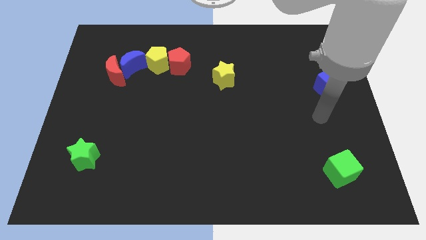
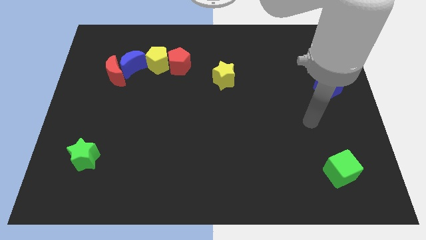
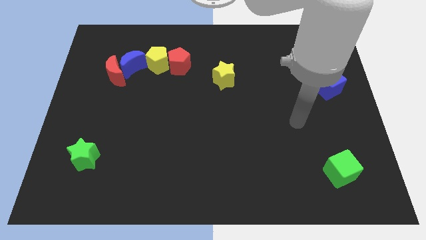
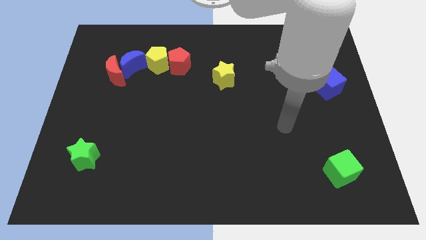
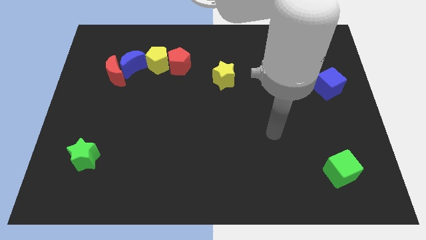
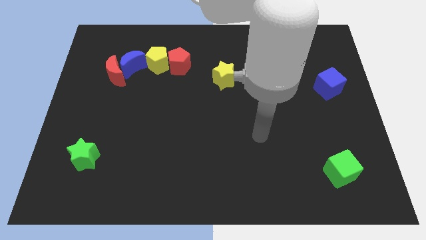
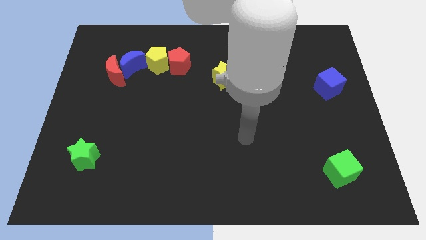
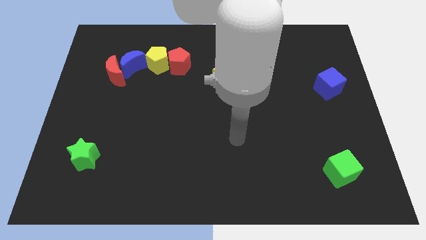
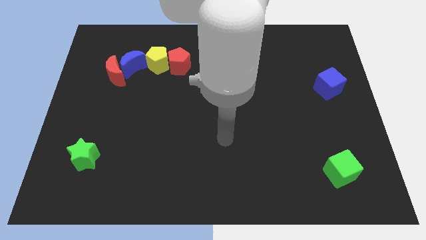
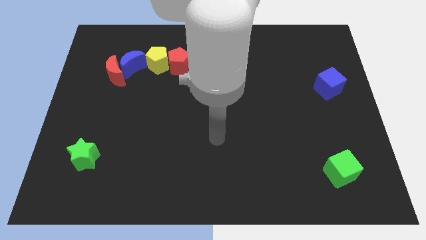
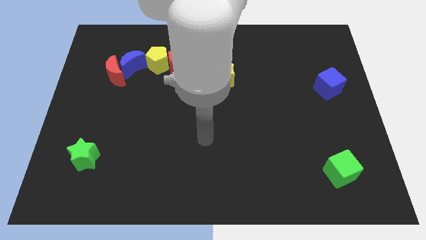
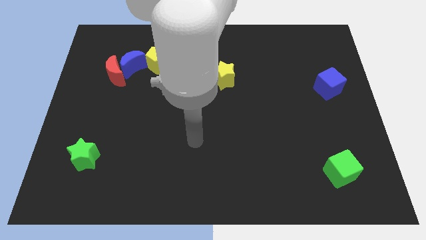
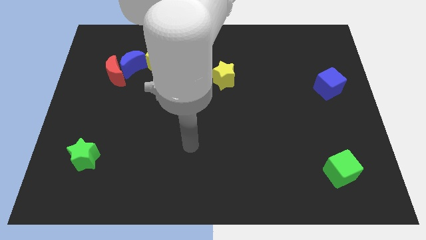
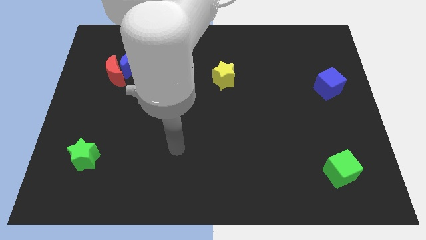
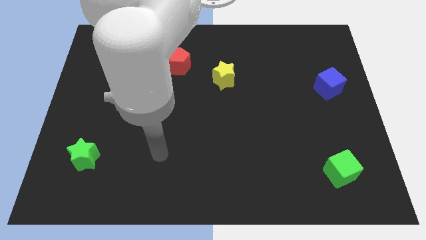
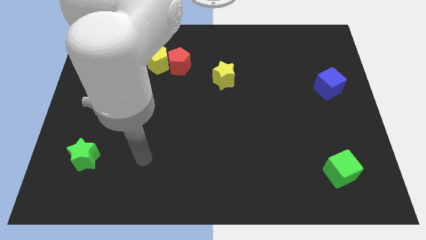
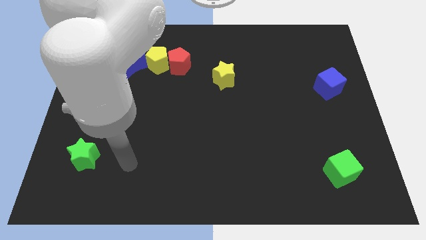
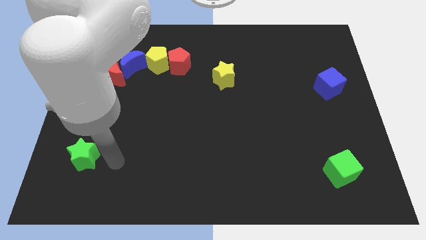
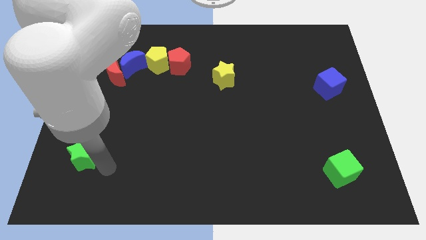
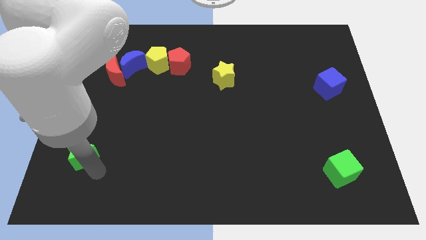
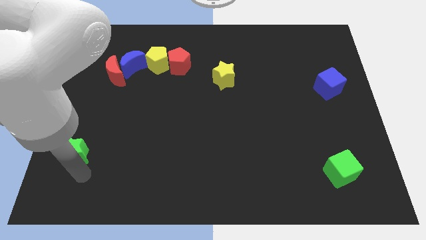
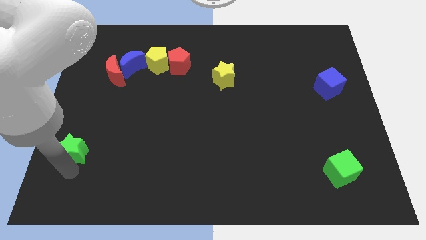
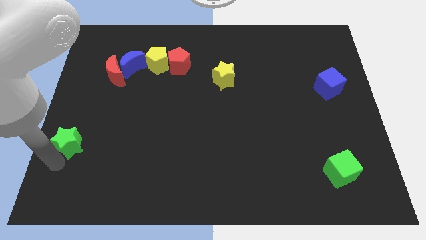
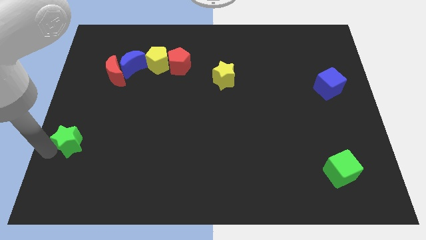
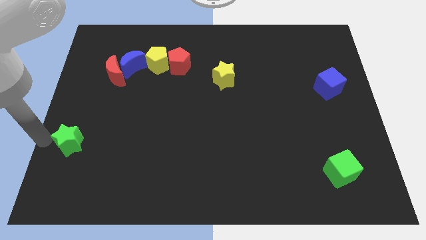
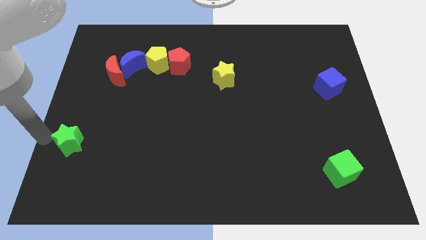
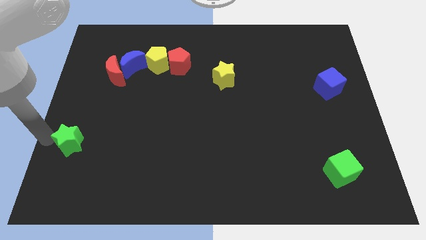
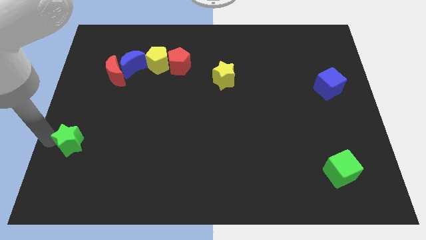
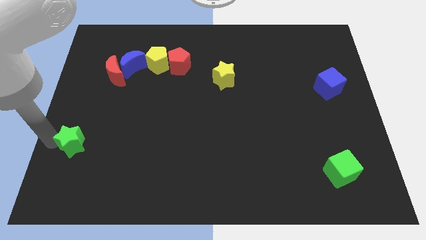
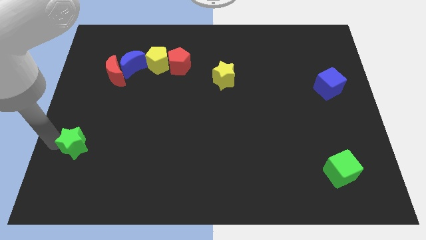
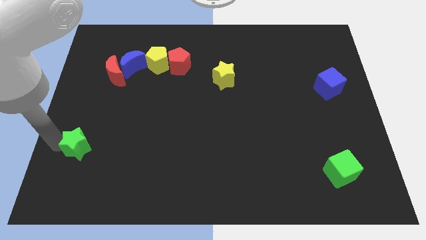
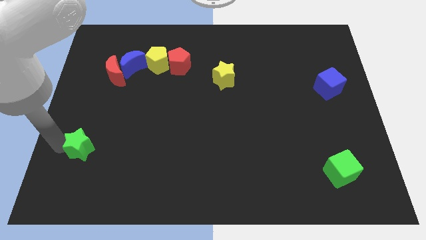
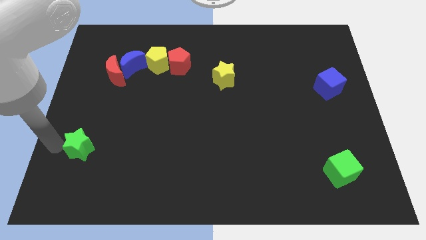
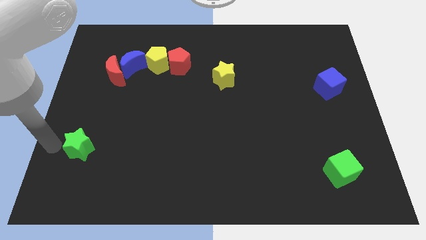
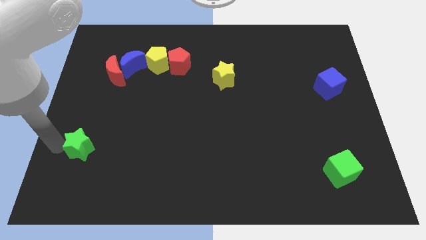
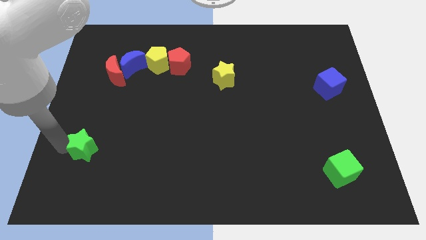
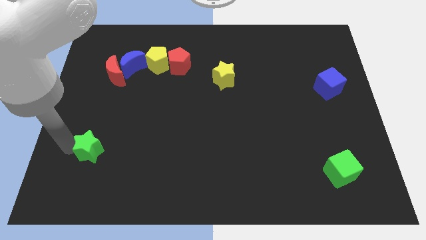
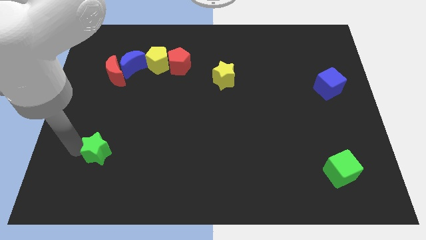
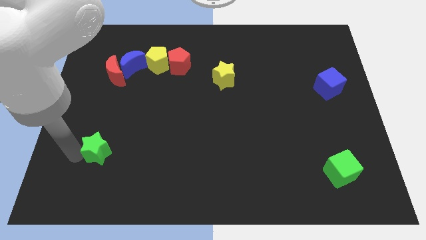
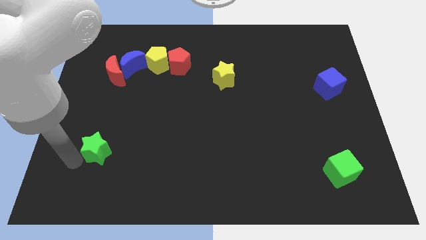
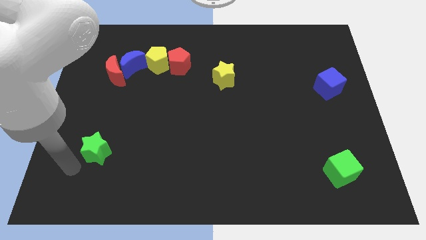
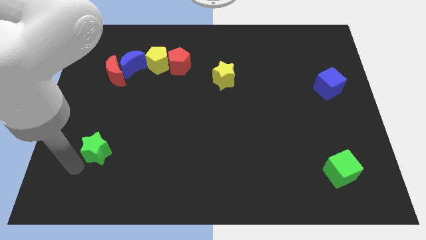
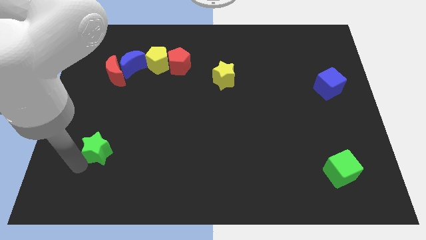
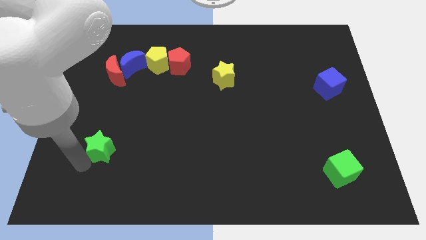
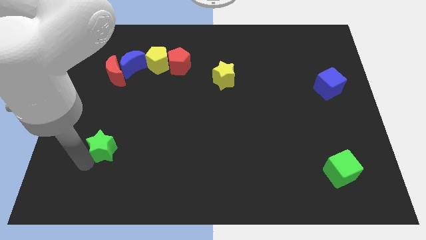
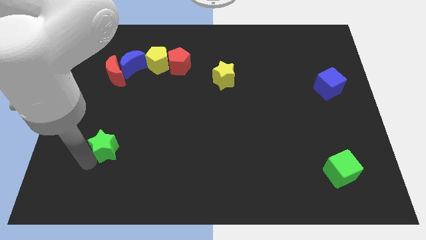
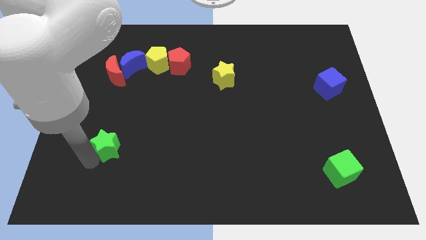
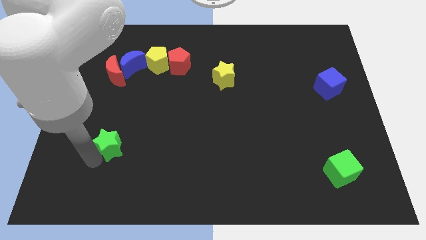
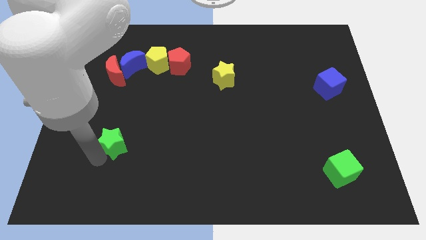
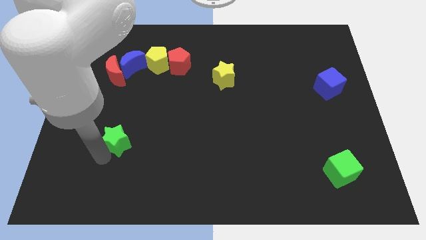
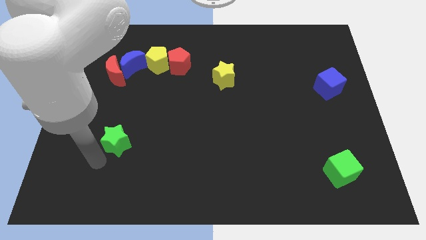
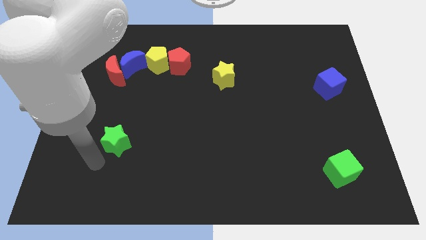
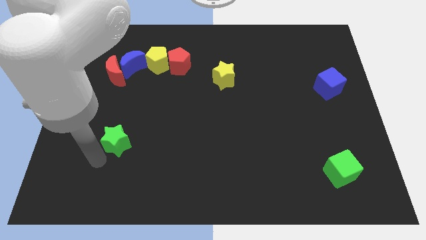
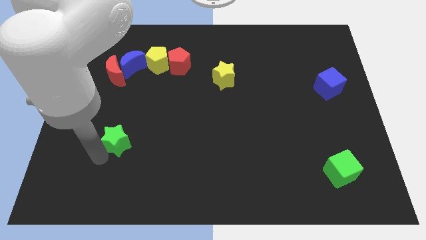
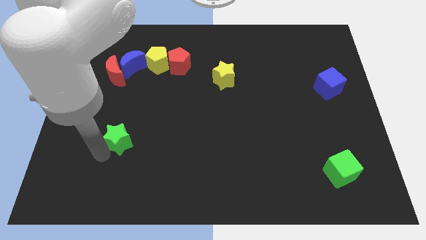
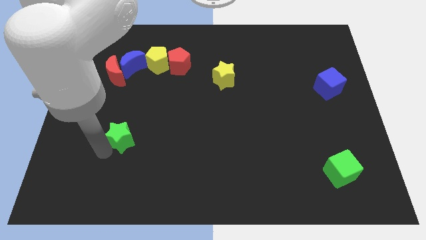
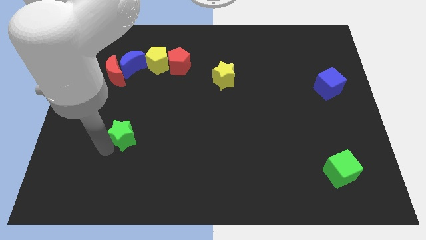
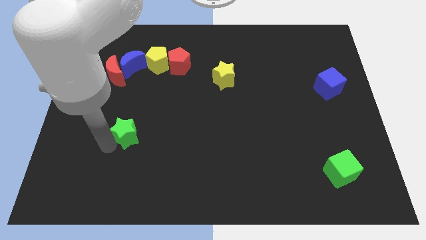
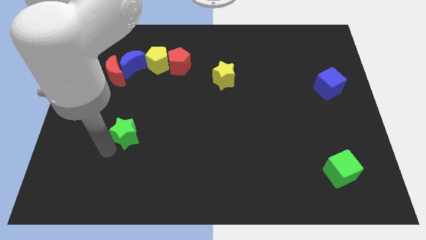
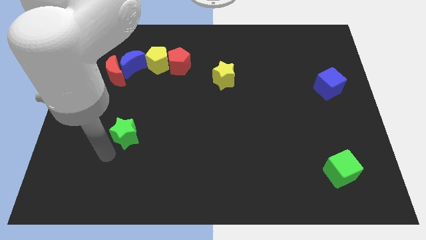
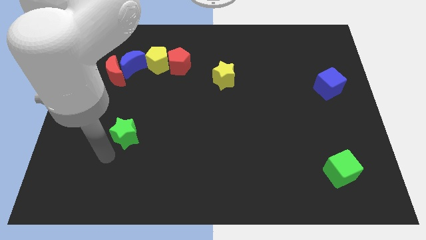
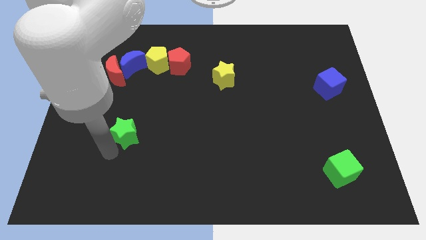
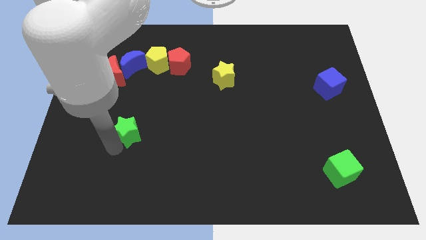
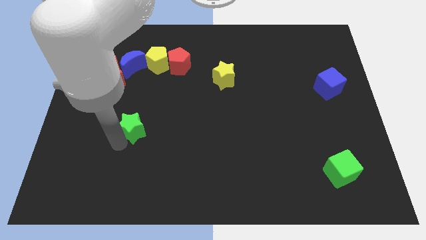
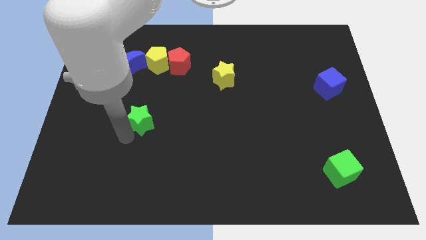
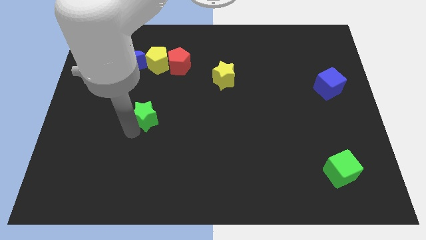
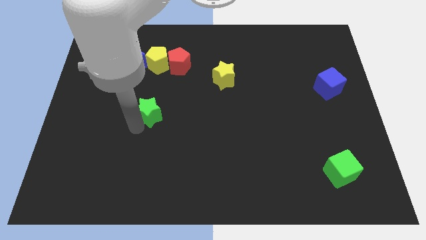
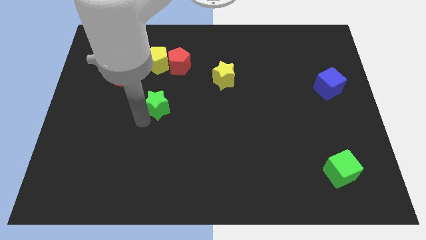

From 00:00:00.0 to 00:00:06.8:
put the green star below the red pentagon

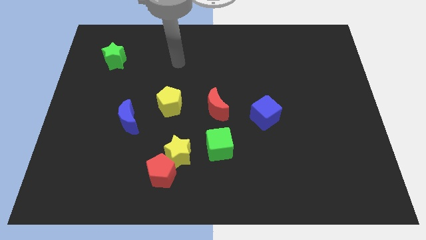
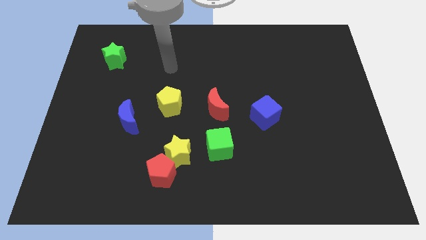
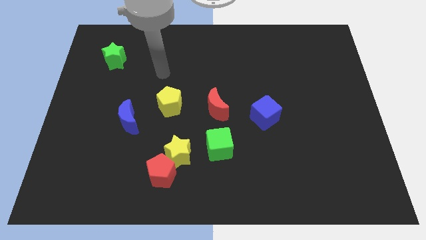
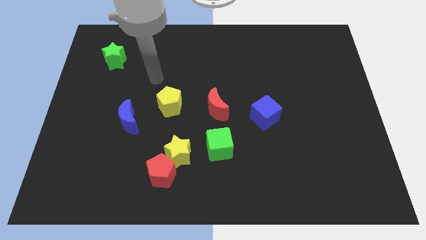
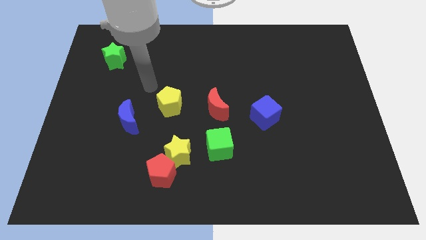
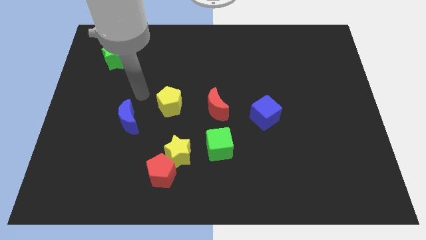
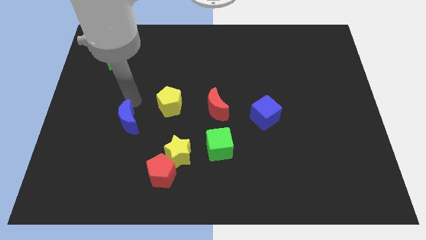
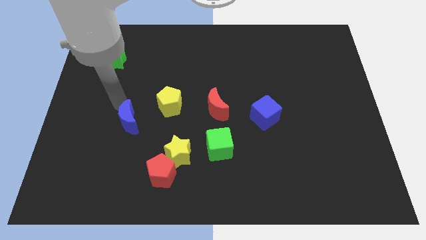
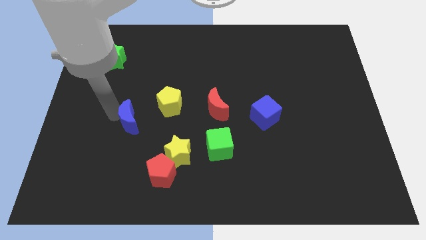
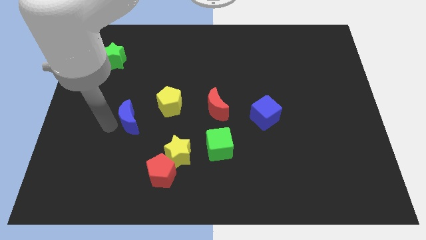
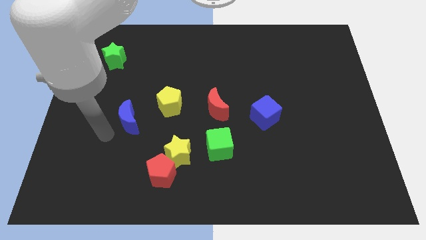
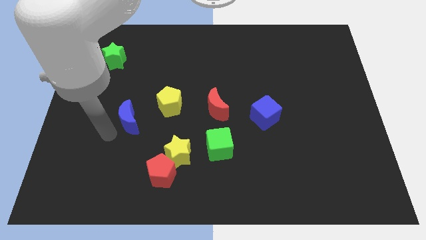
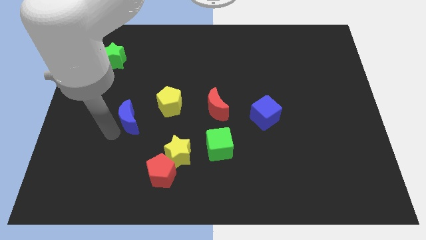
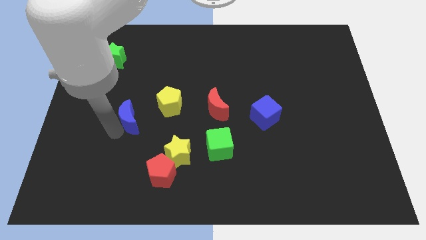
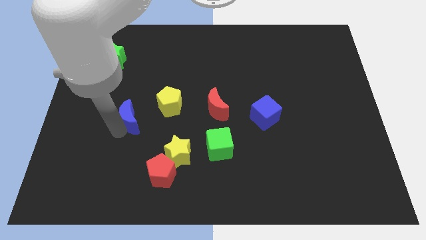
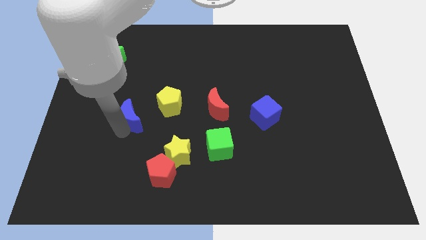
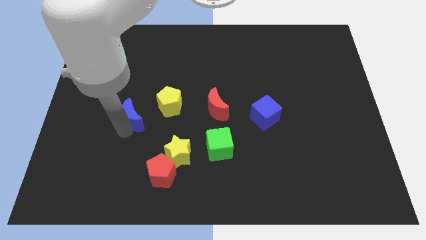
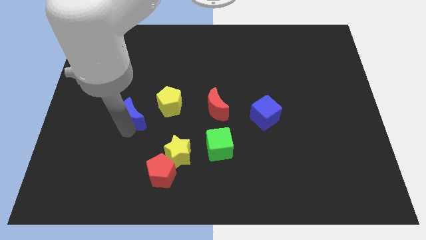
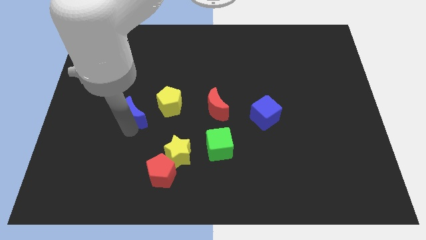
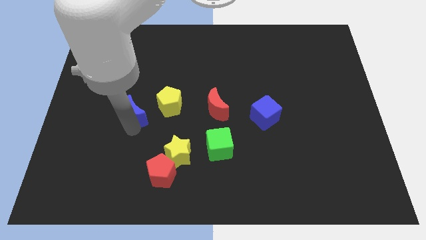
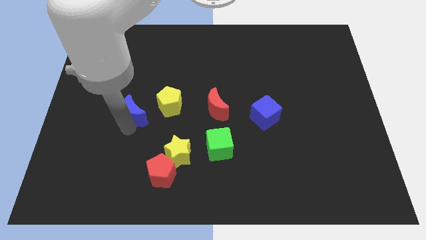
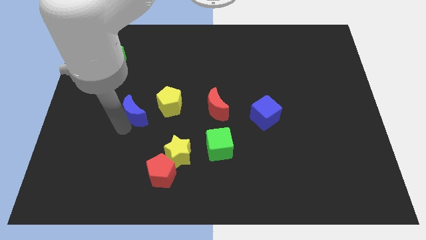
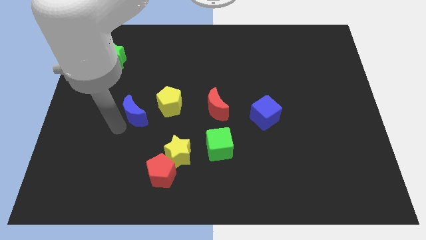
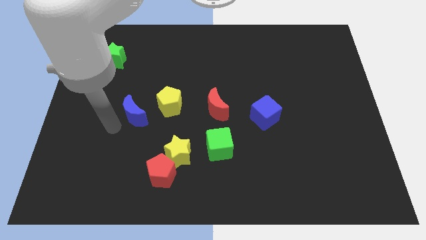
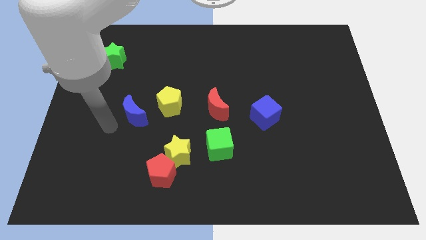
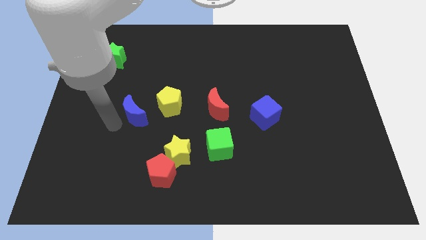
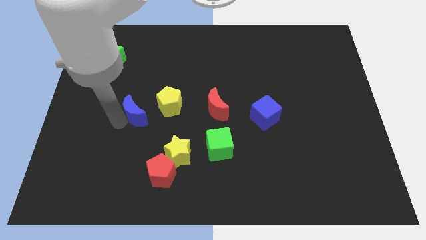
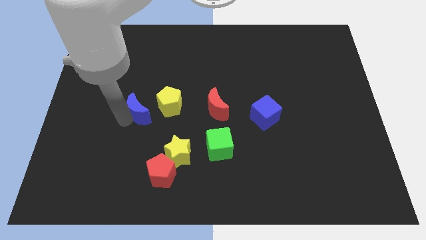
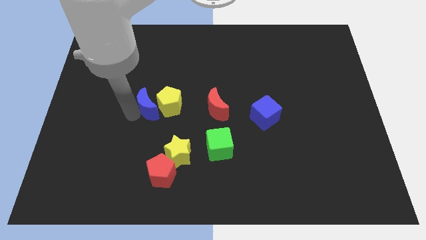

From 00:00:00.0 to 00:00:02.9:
slide the blue moon to the left side of the red moon
